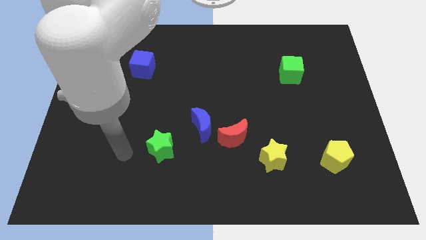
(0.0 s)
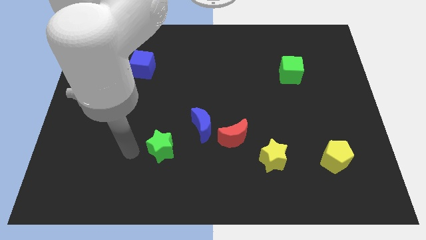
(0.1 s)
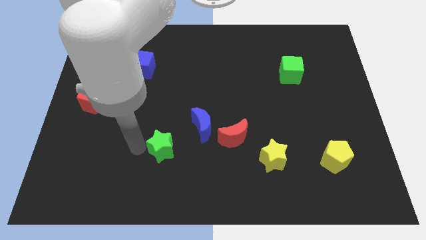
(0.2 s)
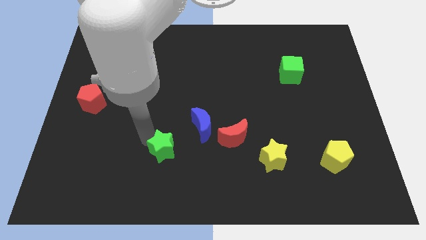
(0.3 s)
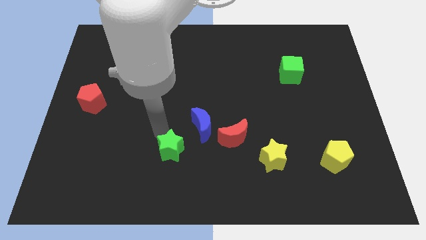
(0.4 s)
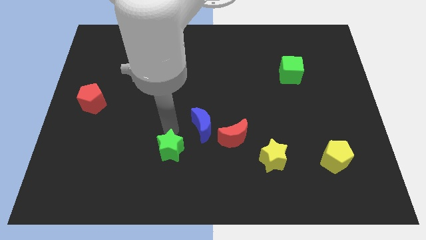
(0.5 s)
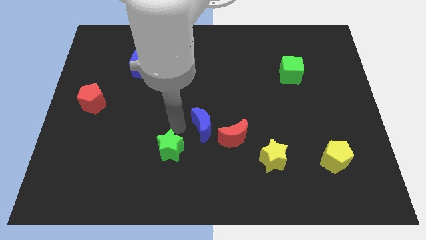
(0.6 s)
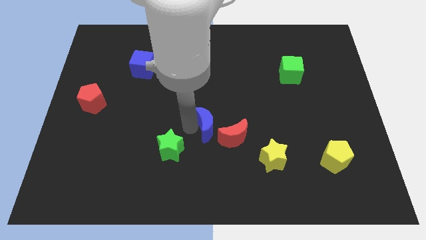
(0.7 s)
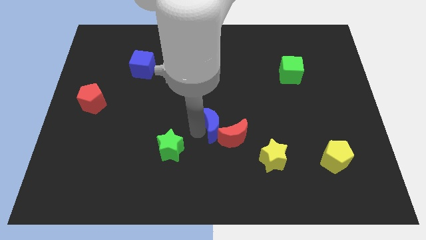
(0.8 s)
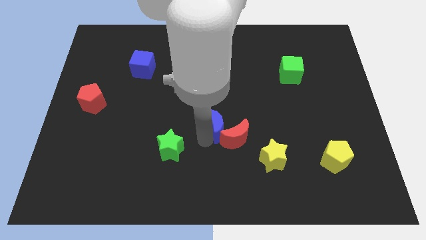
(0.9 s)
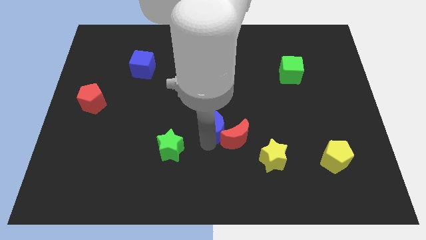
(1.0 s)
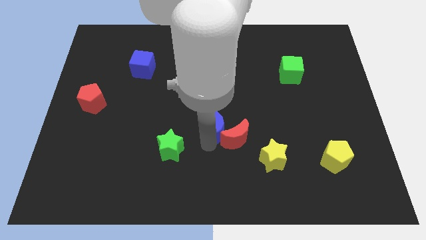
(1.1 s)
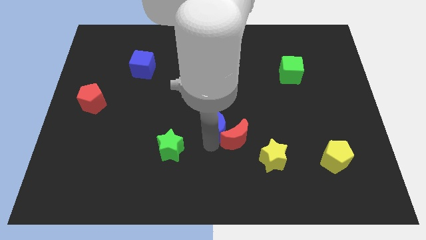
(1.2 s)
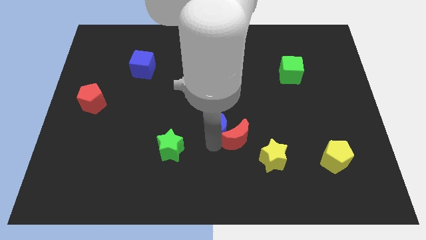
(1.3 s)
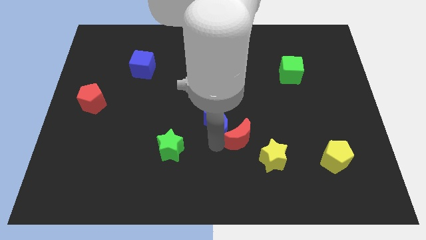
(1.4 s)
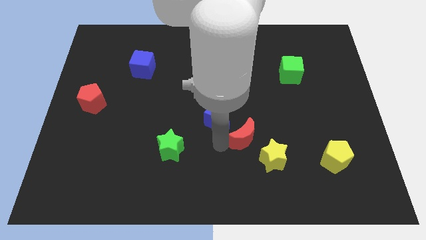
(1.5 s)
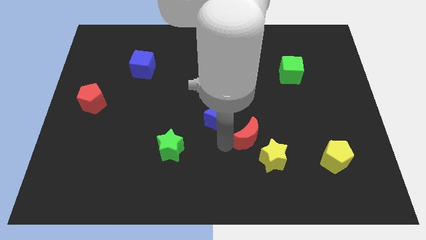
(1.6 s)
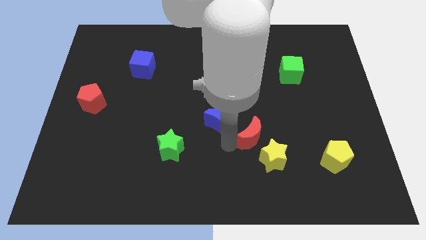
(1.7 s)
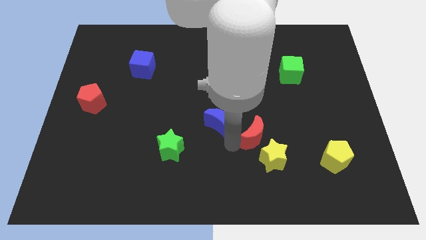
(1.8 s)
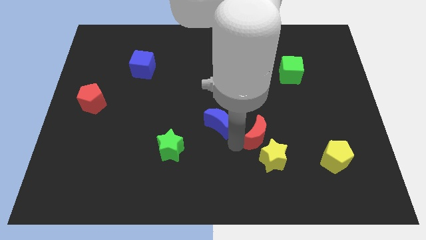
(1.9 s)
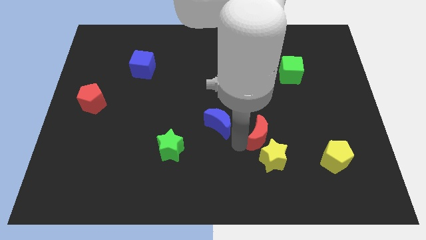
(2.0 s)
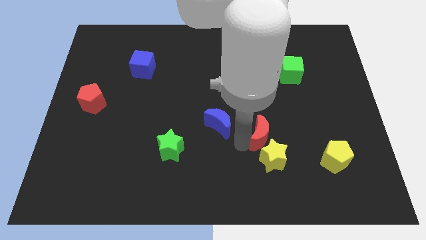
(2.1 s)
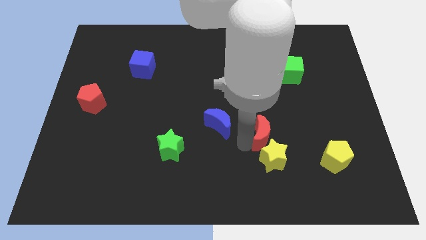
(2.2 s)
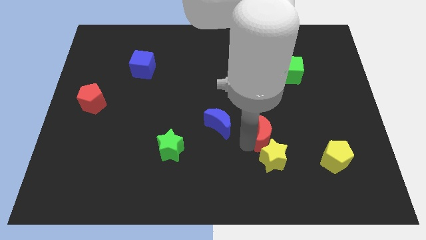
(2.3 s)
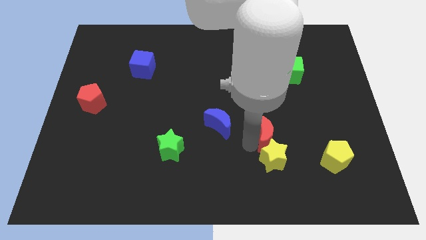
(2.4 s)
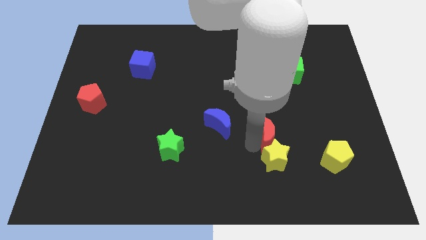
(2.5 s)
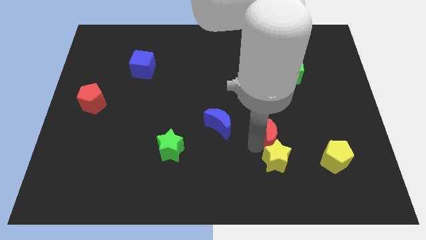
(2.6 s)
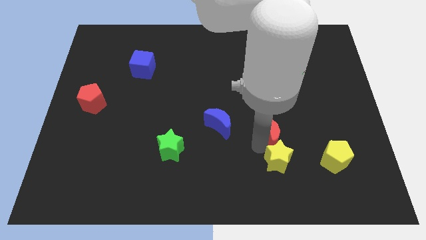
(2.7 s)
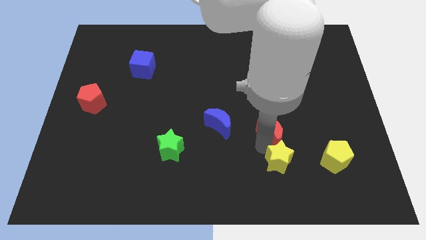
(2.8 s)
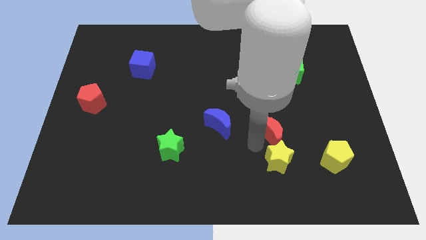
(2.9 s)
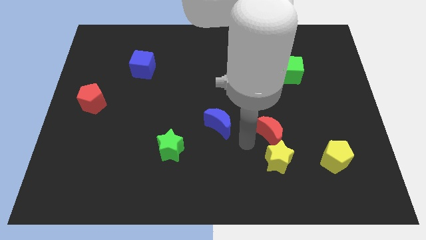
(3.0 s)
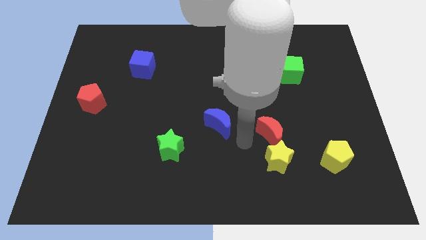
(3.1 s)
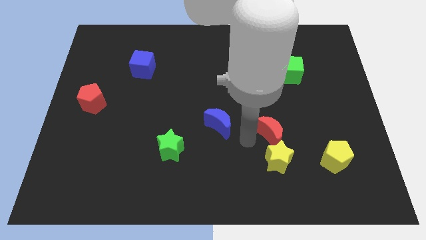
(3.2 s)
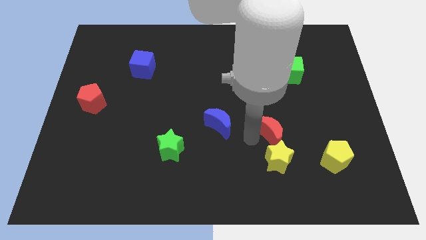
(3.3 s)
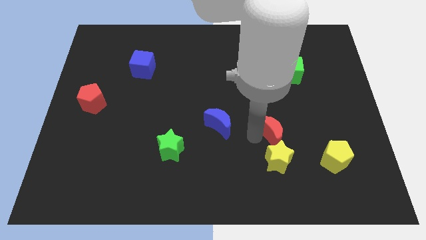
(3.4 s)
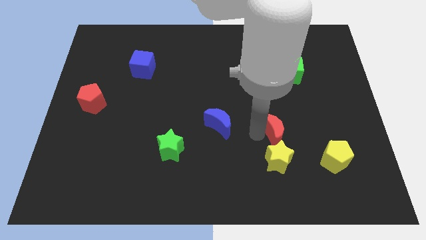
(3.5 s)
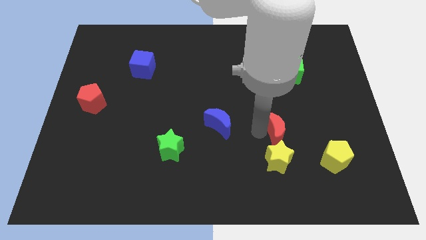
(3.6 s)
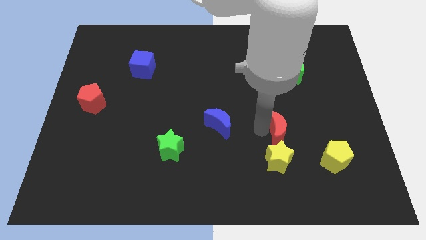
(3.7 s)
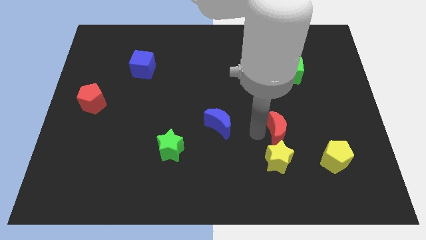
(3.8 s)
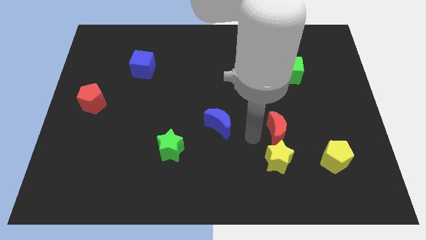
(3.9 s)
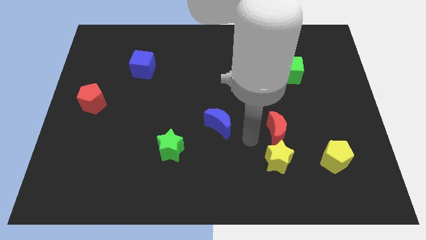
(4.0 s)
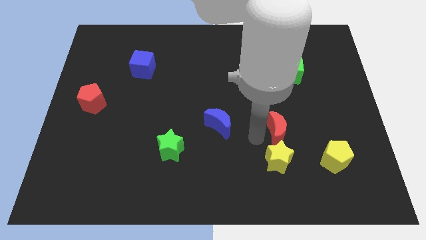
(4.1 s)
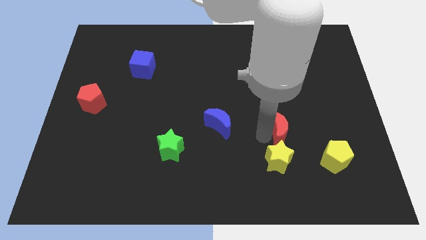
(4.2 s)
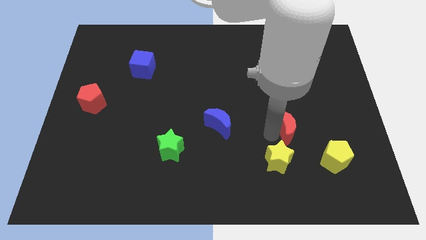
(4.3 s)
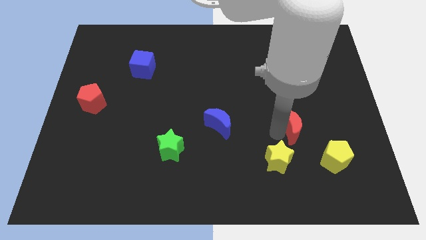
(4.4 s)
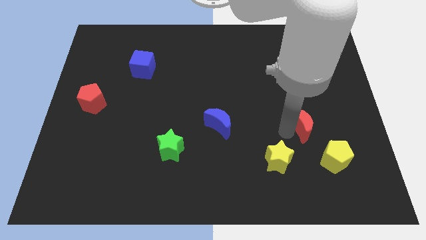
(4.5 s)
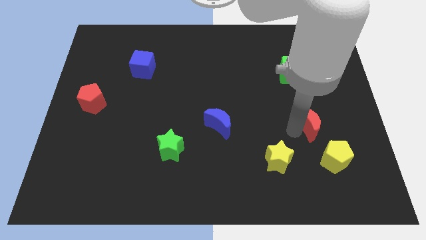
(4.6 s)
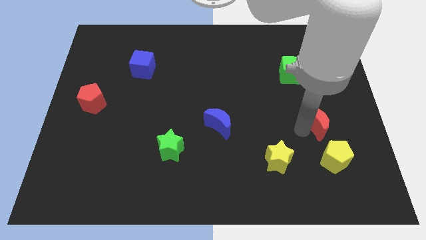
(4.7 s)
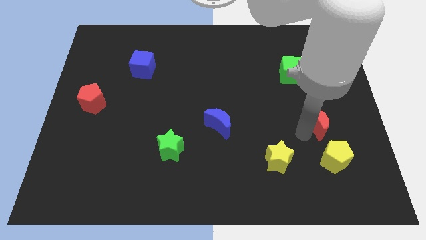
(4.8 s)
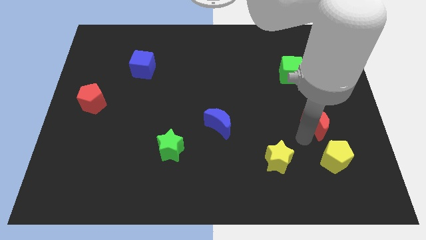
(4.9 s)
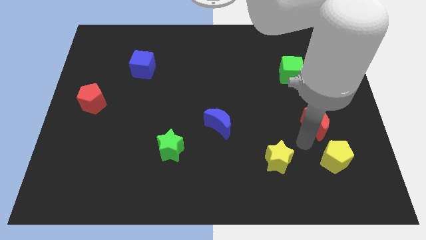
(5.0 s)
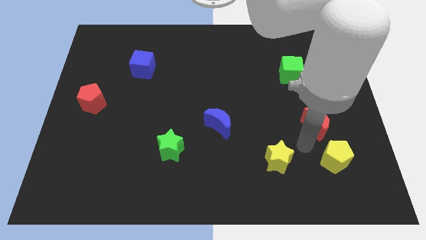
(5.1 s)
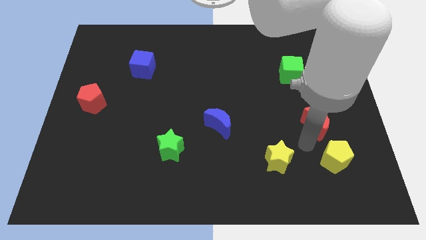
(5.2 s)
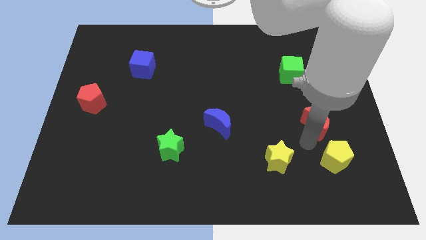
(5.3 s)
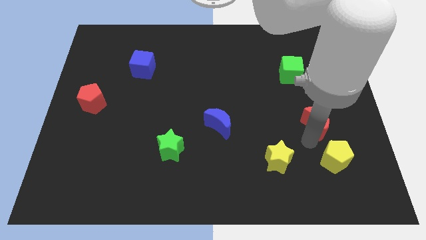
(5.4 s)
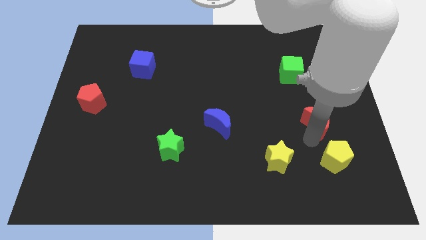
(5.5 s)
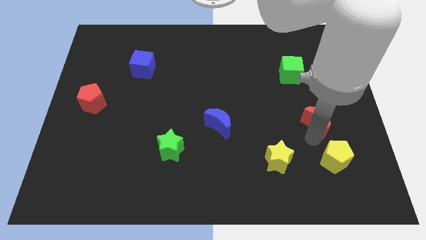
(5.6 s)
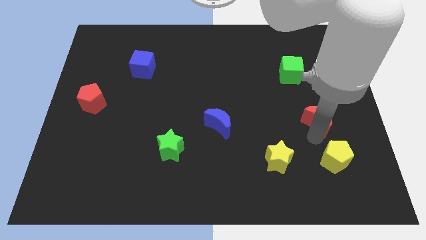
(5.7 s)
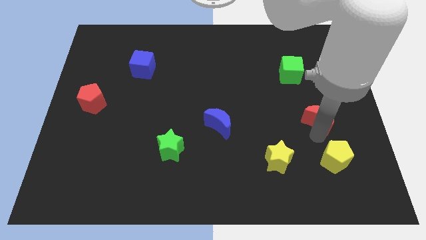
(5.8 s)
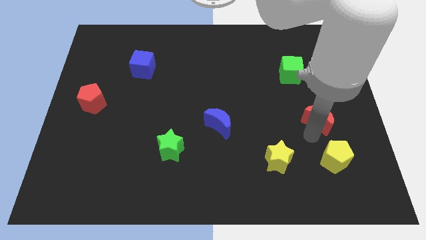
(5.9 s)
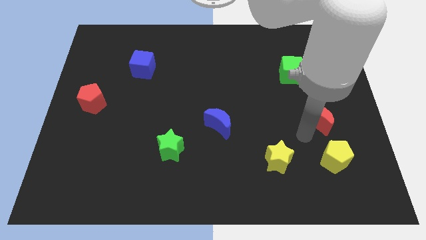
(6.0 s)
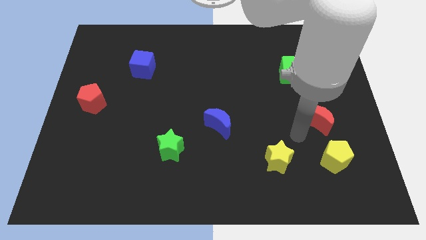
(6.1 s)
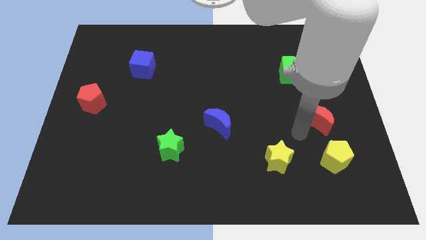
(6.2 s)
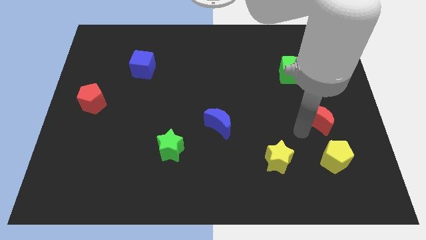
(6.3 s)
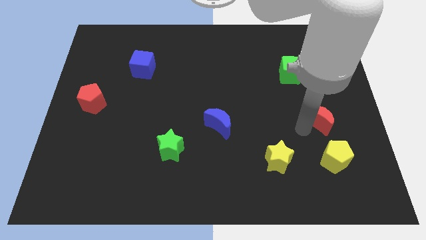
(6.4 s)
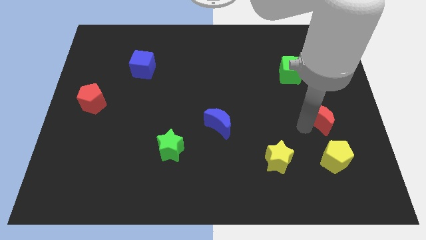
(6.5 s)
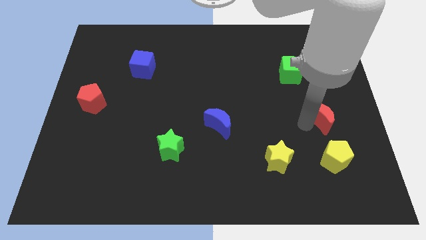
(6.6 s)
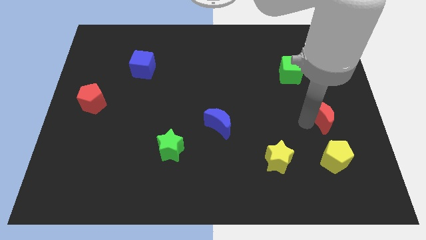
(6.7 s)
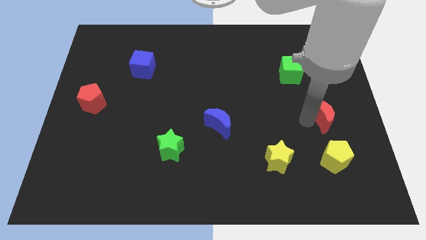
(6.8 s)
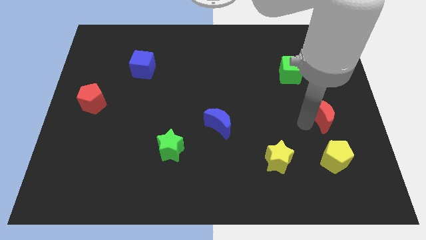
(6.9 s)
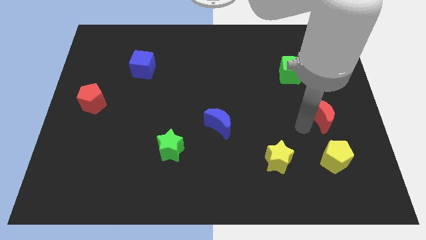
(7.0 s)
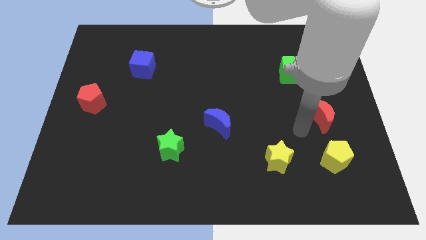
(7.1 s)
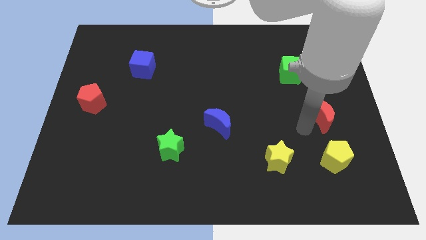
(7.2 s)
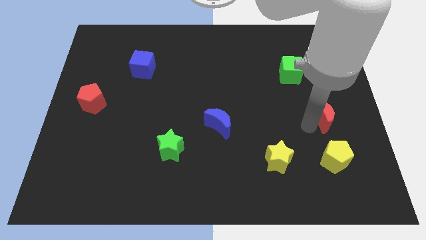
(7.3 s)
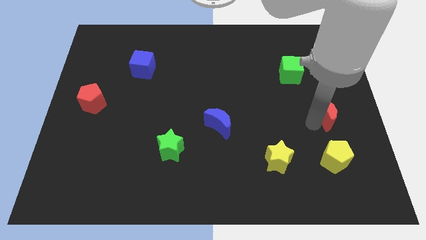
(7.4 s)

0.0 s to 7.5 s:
push the red moon to the right side
